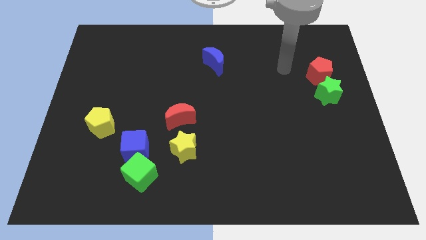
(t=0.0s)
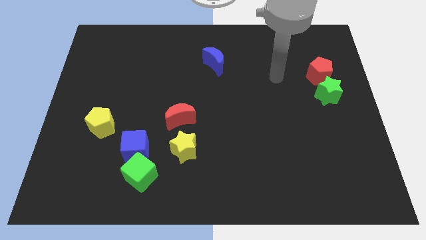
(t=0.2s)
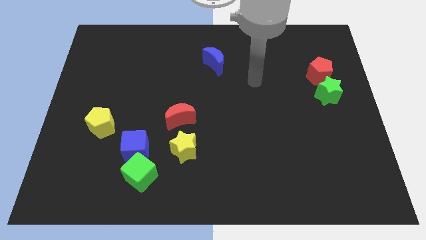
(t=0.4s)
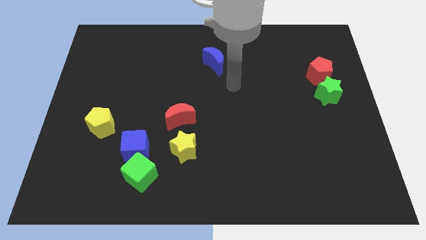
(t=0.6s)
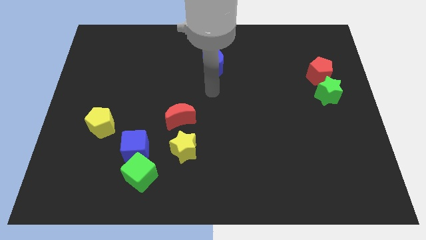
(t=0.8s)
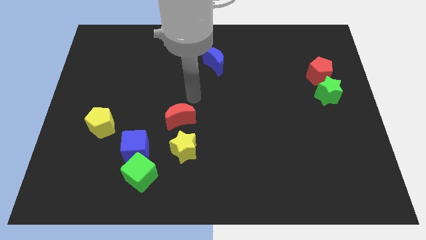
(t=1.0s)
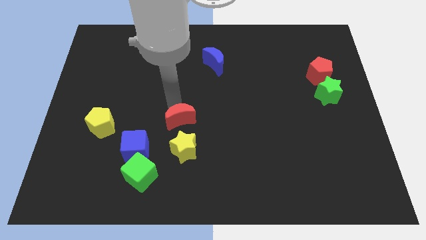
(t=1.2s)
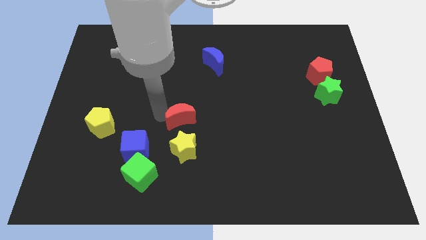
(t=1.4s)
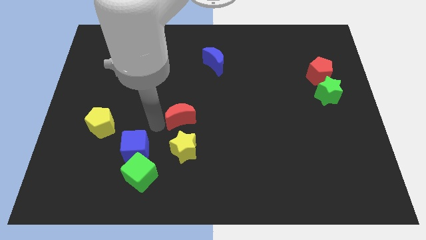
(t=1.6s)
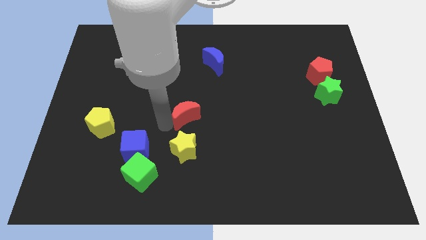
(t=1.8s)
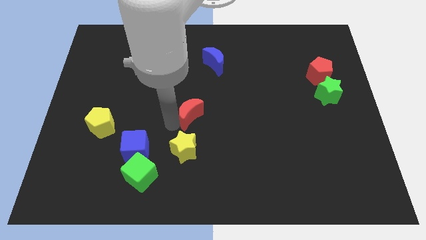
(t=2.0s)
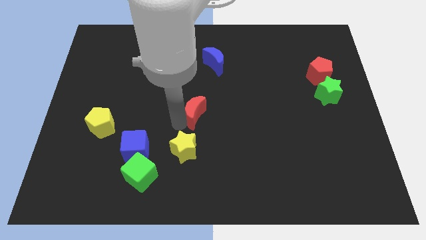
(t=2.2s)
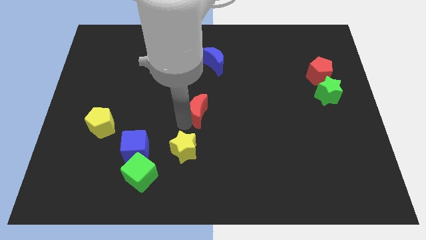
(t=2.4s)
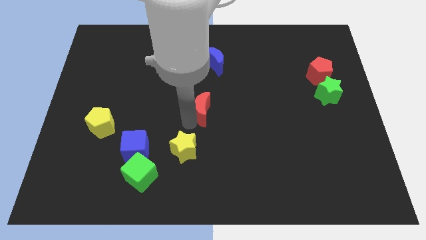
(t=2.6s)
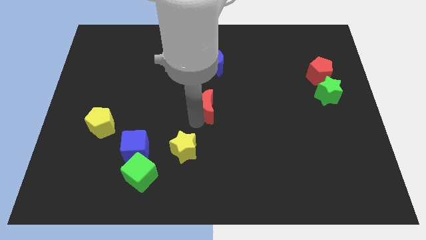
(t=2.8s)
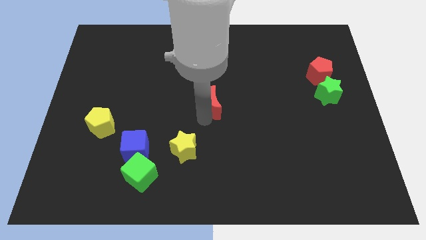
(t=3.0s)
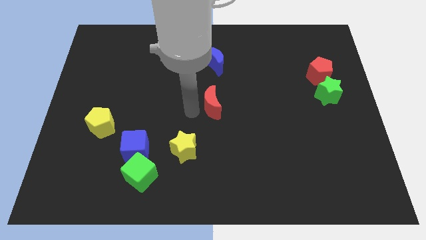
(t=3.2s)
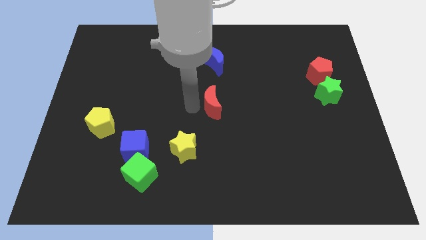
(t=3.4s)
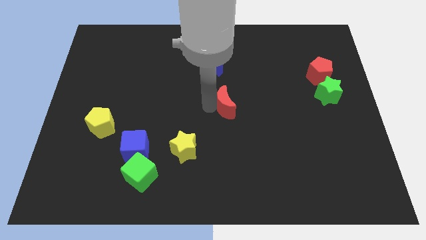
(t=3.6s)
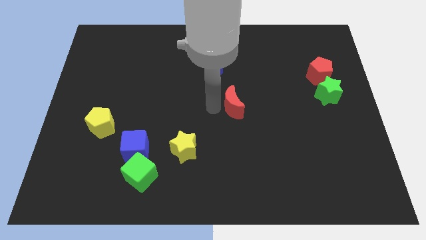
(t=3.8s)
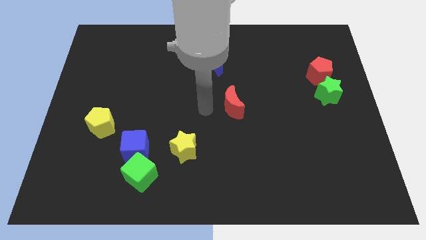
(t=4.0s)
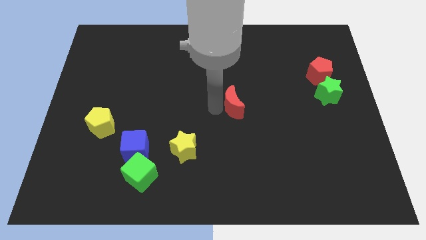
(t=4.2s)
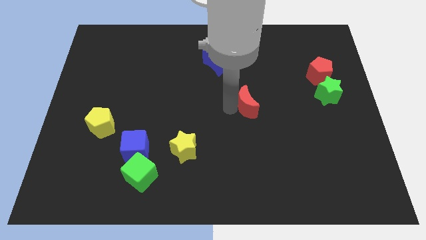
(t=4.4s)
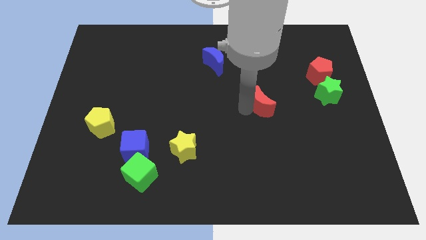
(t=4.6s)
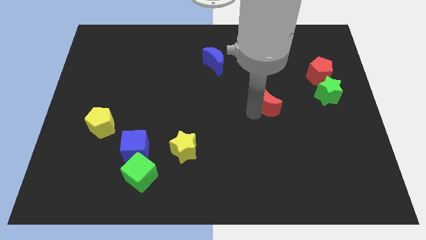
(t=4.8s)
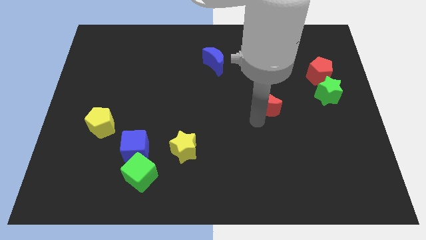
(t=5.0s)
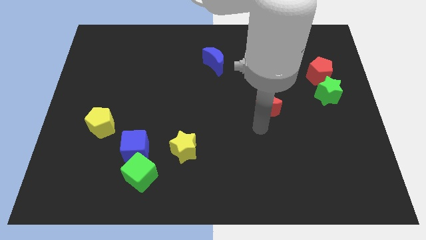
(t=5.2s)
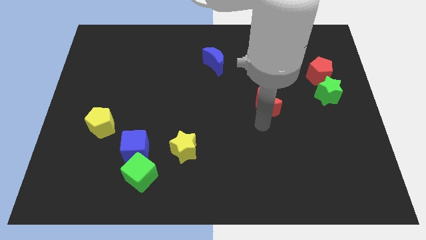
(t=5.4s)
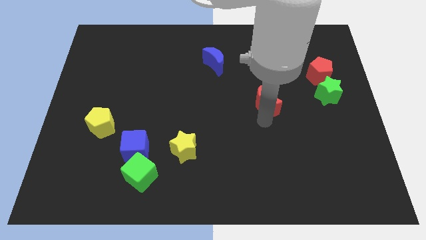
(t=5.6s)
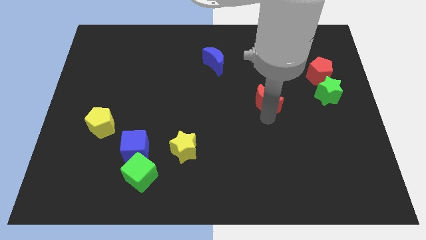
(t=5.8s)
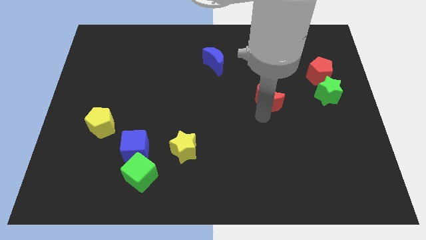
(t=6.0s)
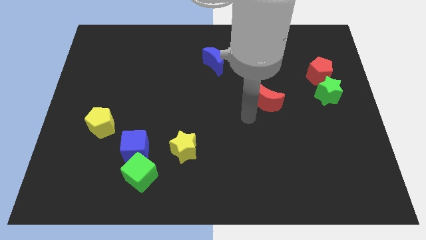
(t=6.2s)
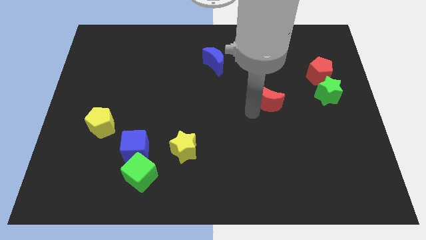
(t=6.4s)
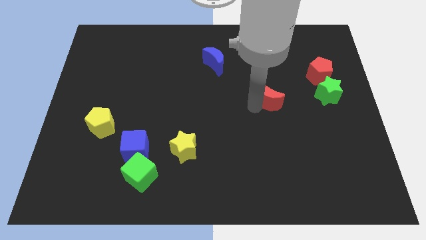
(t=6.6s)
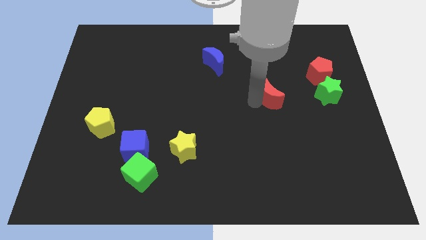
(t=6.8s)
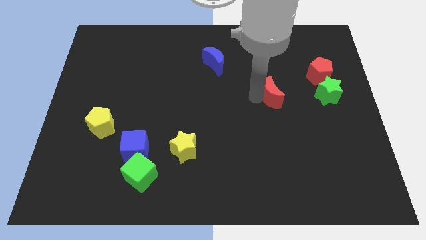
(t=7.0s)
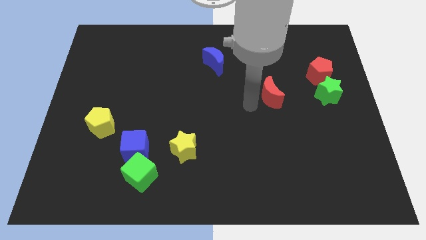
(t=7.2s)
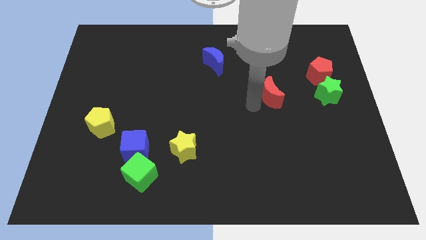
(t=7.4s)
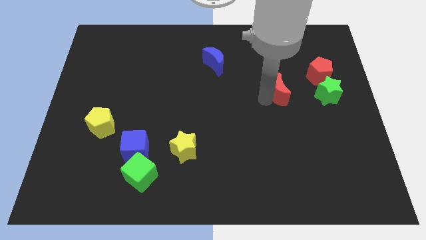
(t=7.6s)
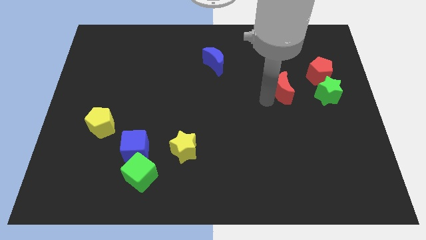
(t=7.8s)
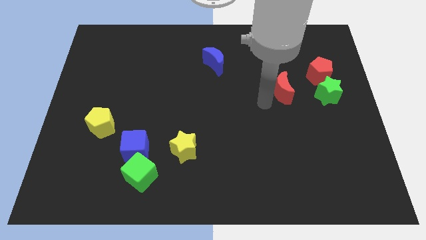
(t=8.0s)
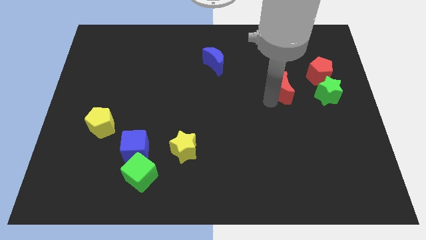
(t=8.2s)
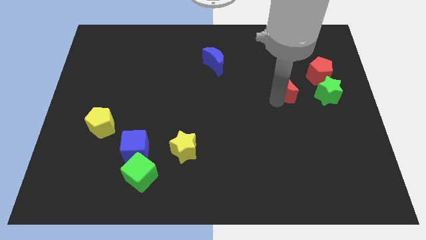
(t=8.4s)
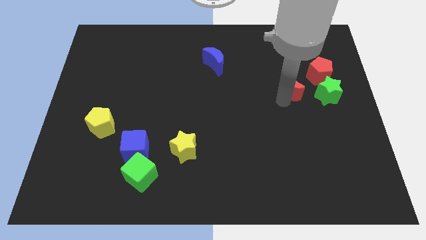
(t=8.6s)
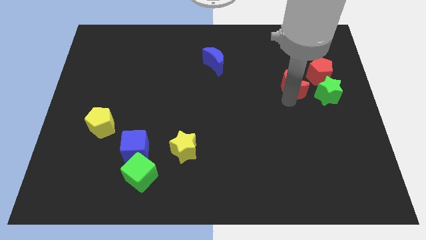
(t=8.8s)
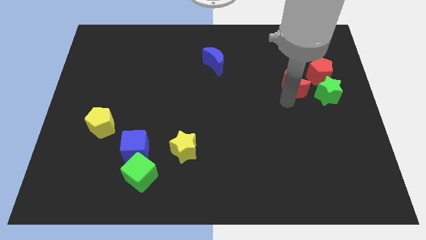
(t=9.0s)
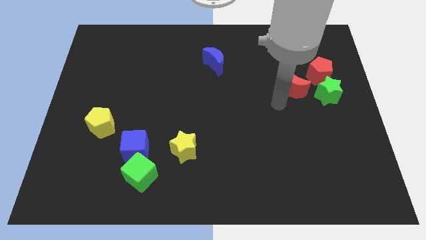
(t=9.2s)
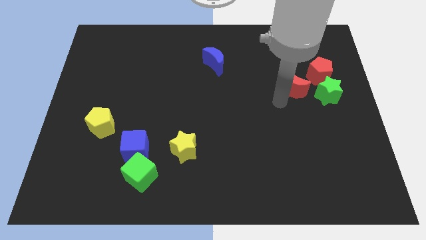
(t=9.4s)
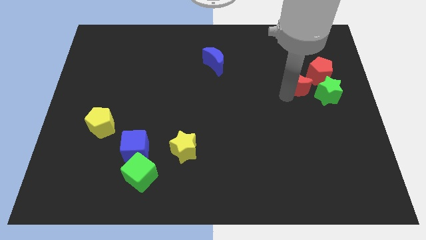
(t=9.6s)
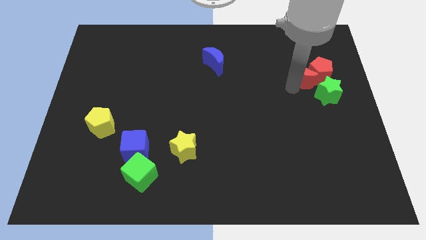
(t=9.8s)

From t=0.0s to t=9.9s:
move the red moon towards the red pentagon

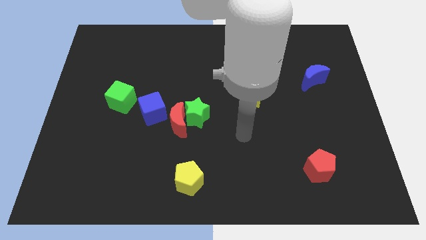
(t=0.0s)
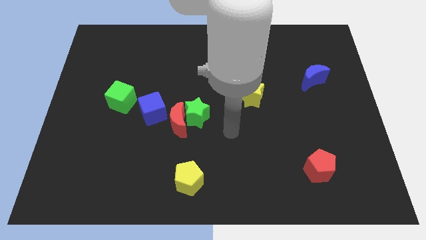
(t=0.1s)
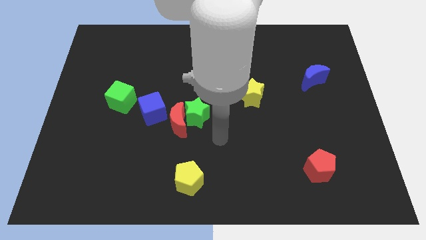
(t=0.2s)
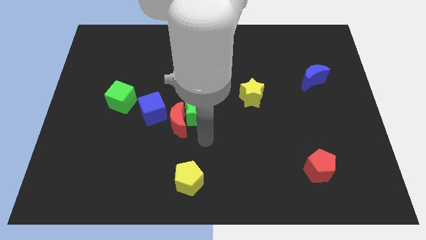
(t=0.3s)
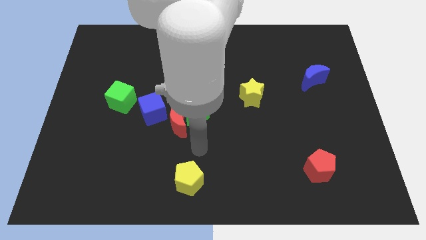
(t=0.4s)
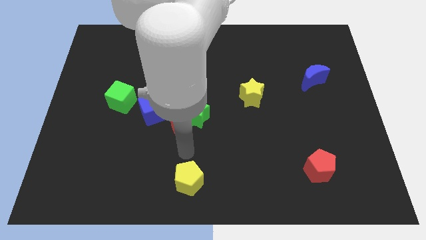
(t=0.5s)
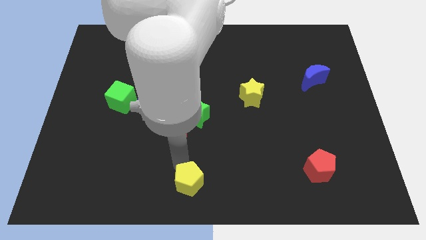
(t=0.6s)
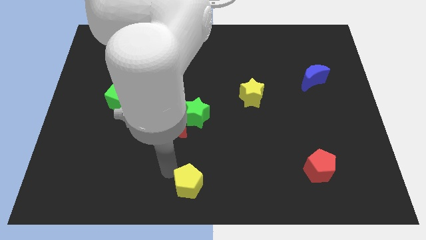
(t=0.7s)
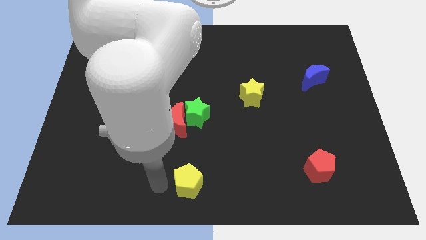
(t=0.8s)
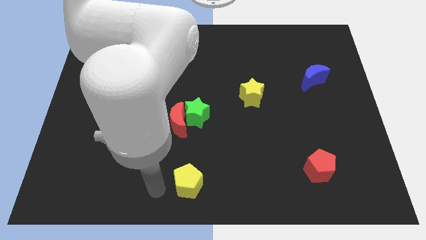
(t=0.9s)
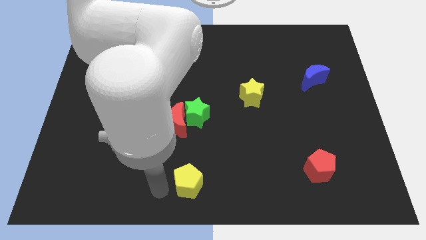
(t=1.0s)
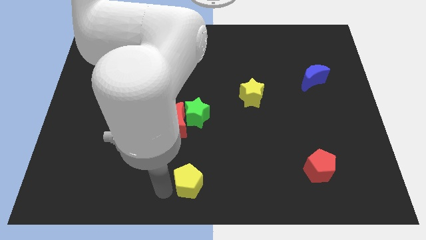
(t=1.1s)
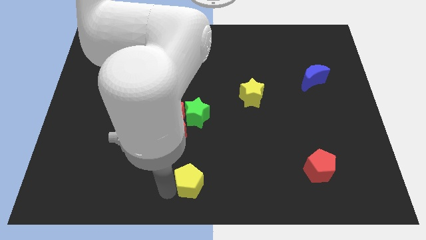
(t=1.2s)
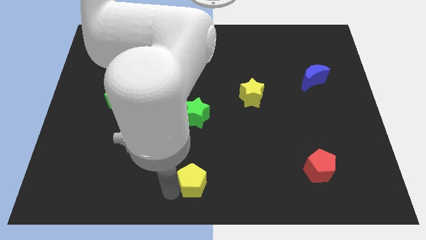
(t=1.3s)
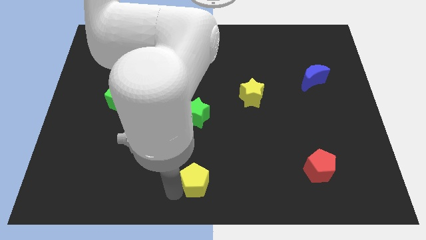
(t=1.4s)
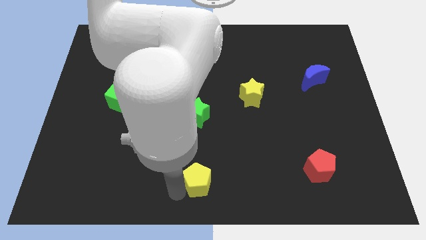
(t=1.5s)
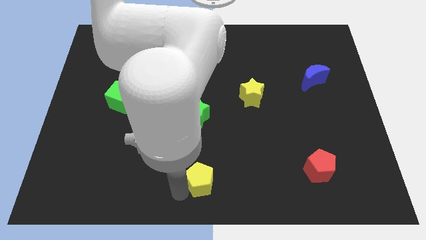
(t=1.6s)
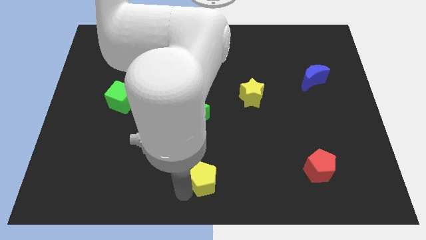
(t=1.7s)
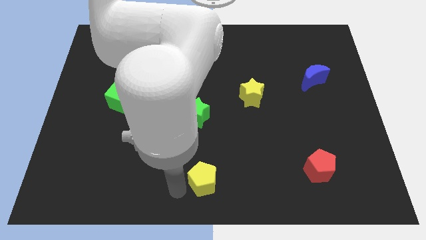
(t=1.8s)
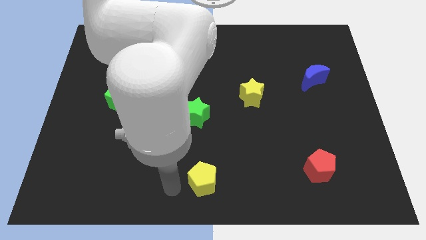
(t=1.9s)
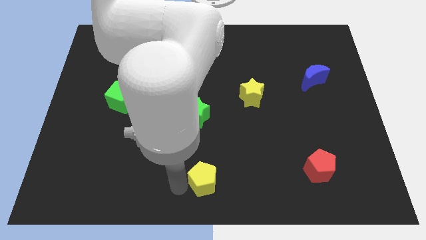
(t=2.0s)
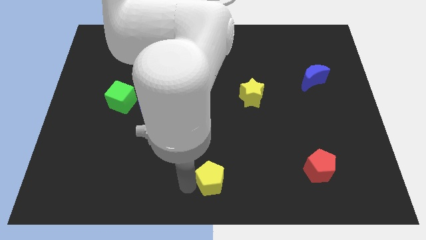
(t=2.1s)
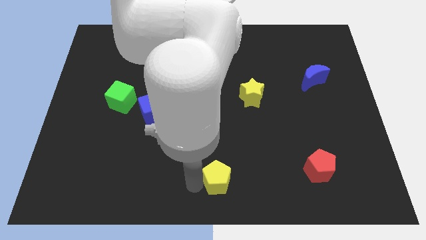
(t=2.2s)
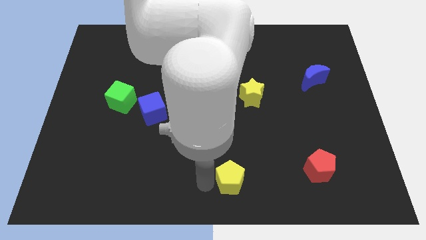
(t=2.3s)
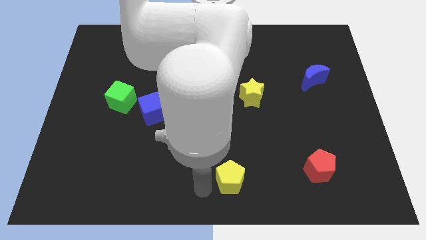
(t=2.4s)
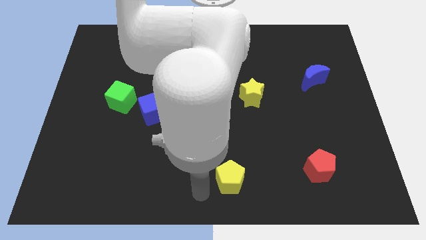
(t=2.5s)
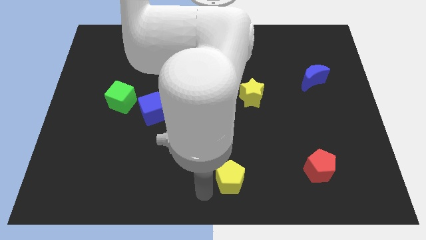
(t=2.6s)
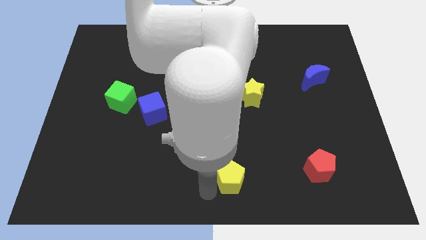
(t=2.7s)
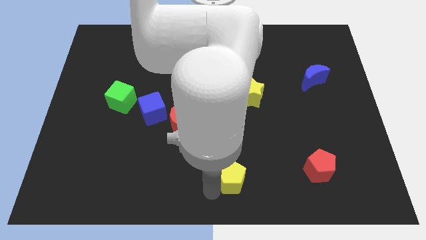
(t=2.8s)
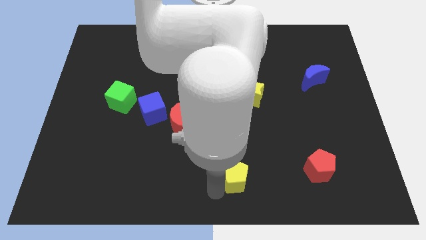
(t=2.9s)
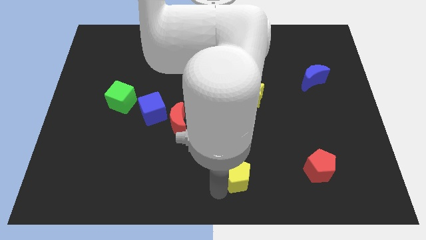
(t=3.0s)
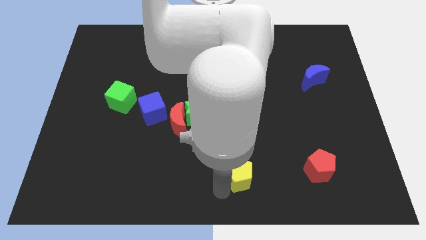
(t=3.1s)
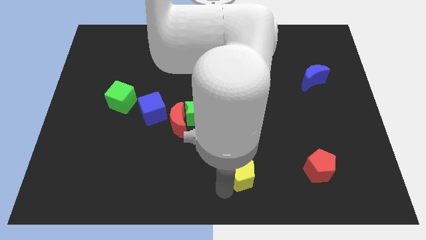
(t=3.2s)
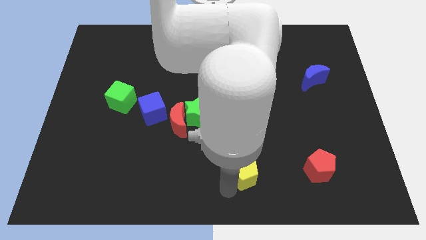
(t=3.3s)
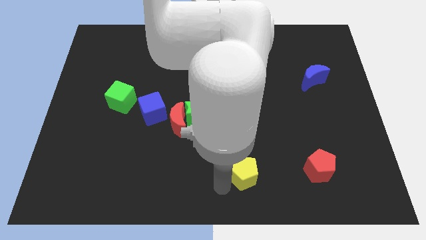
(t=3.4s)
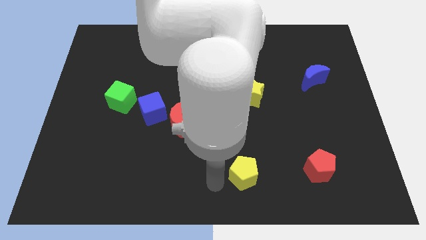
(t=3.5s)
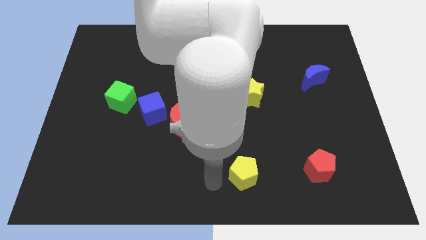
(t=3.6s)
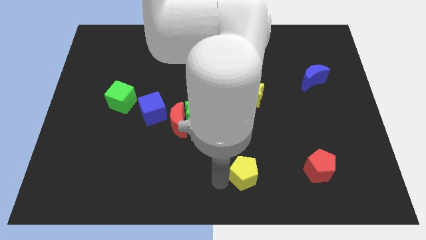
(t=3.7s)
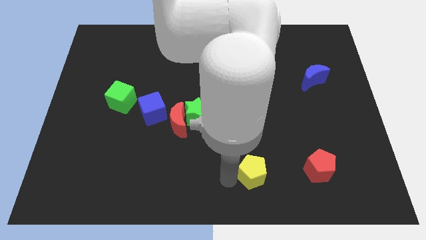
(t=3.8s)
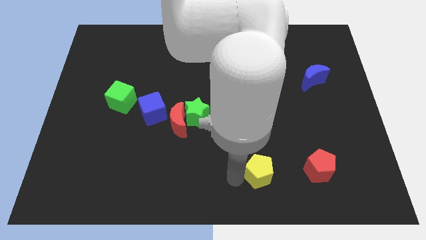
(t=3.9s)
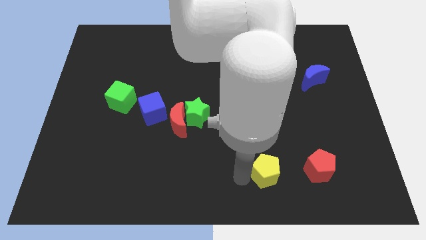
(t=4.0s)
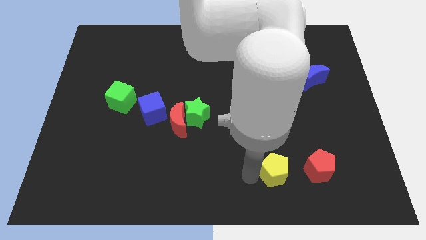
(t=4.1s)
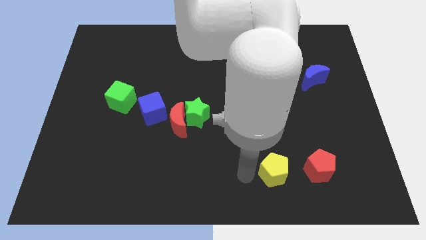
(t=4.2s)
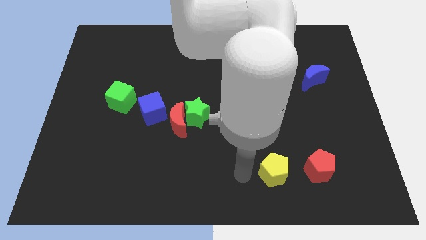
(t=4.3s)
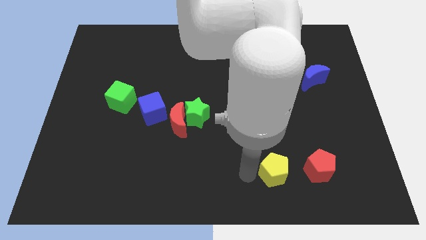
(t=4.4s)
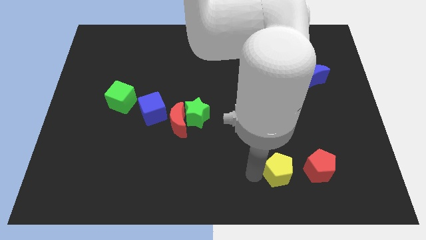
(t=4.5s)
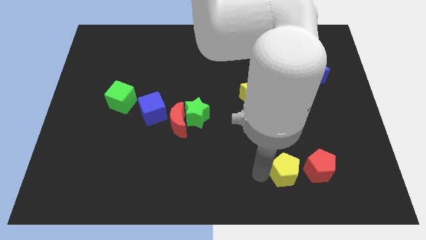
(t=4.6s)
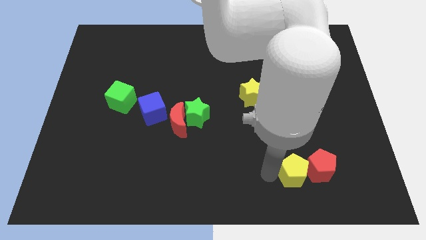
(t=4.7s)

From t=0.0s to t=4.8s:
put the yellow pentagon close to the red pentagon
